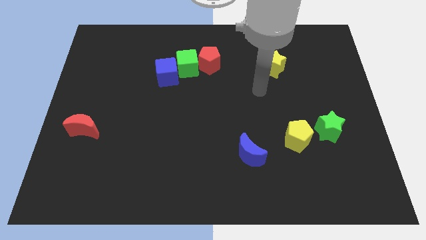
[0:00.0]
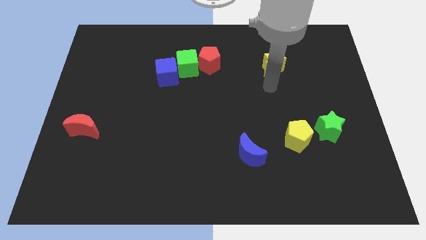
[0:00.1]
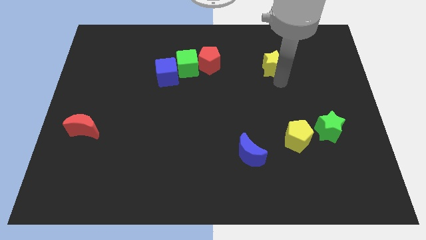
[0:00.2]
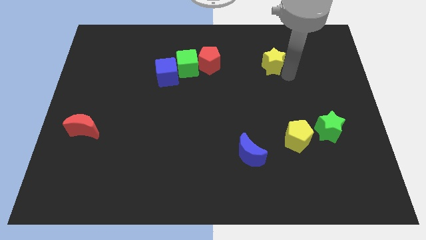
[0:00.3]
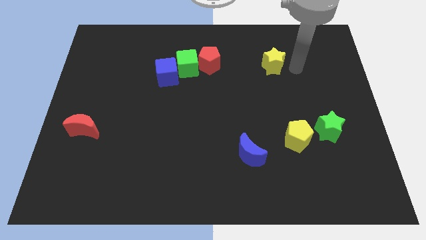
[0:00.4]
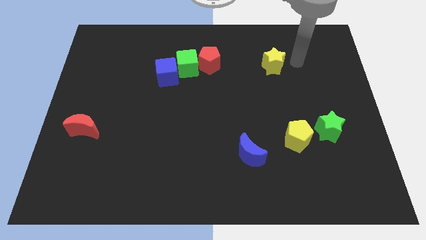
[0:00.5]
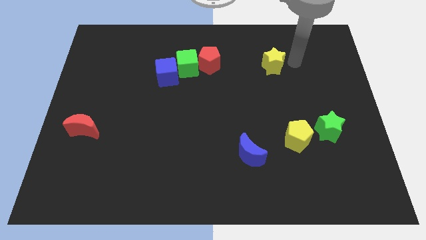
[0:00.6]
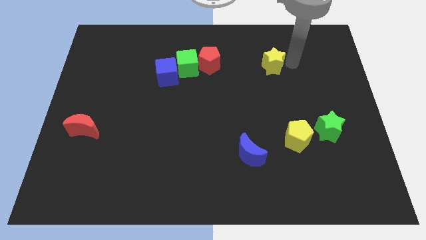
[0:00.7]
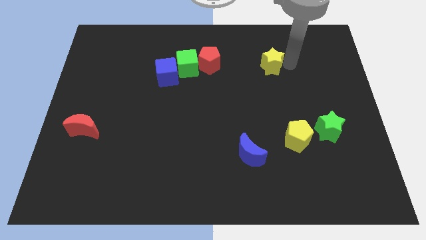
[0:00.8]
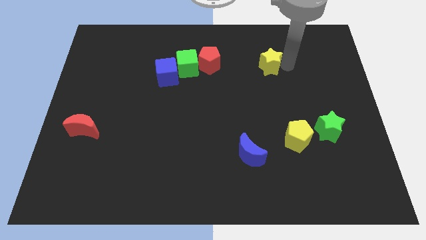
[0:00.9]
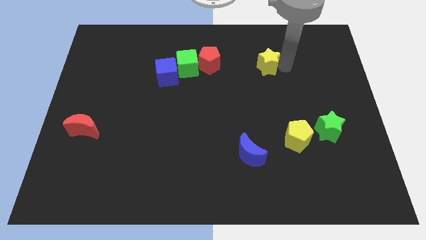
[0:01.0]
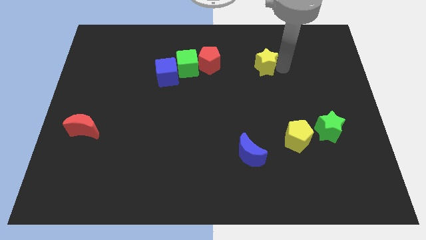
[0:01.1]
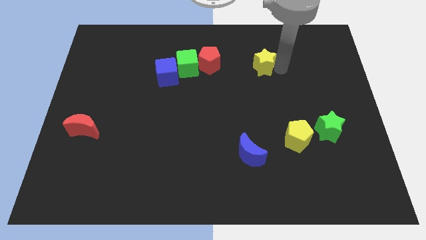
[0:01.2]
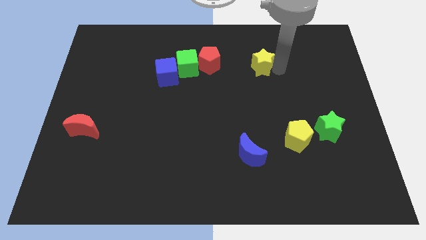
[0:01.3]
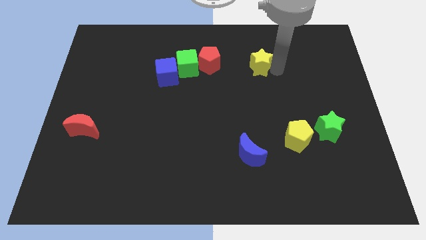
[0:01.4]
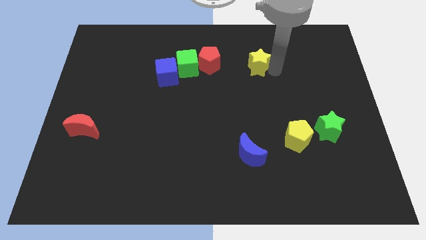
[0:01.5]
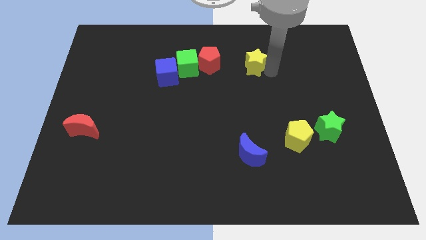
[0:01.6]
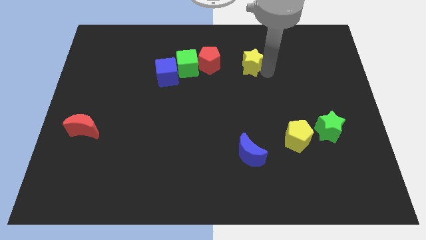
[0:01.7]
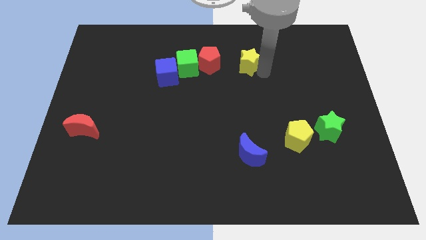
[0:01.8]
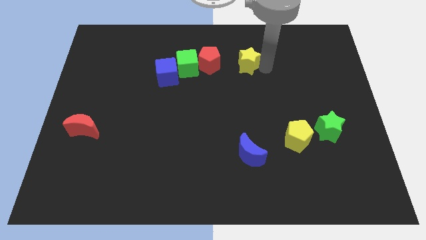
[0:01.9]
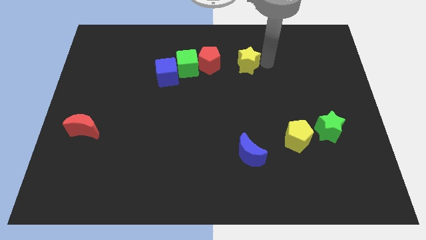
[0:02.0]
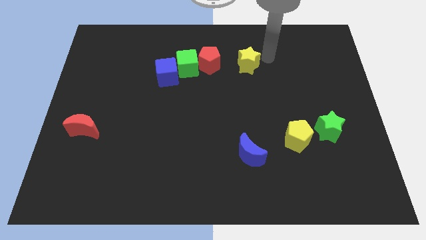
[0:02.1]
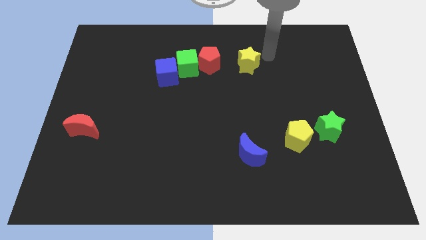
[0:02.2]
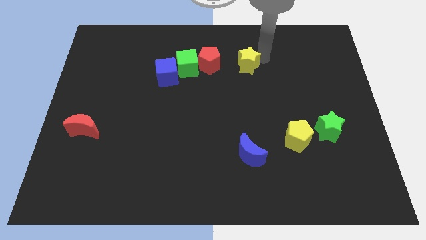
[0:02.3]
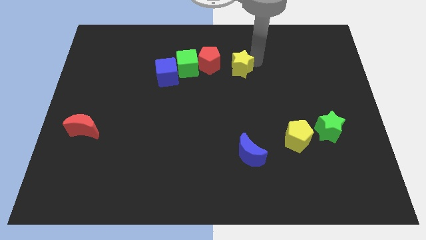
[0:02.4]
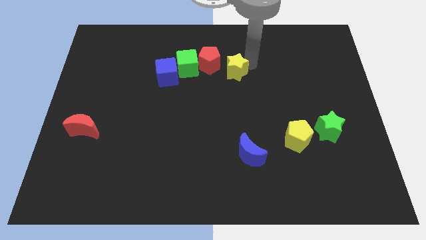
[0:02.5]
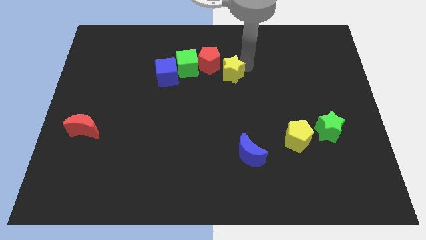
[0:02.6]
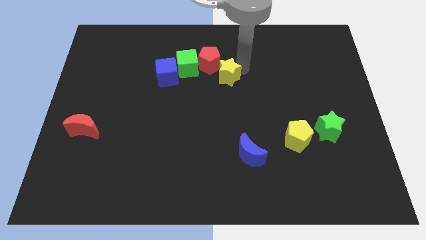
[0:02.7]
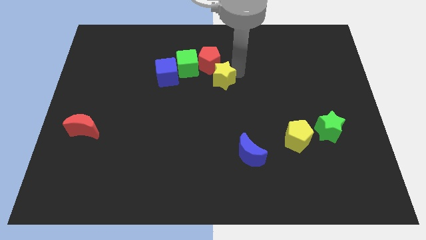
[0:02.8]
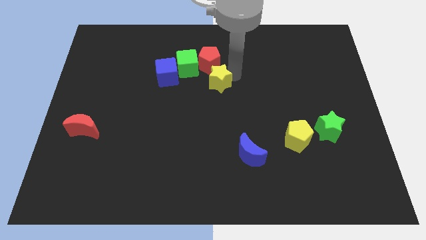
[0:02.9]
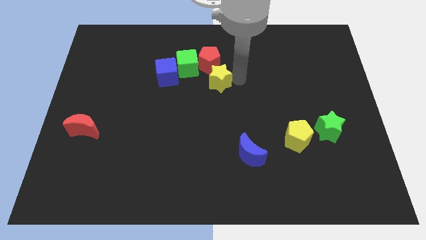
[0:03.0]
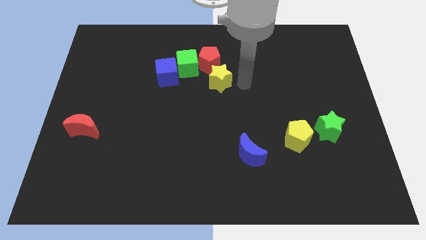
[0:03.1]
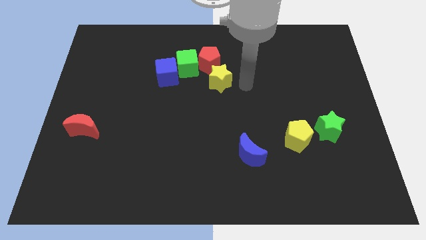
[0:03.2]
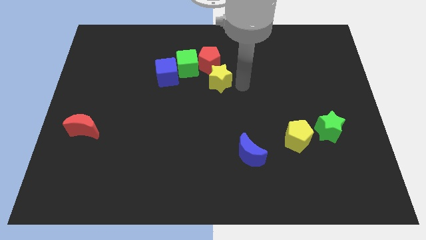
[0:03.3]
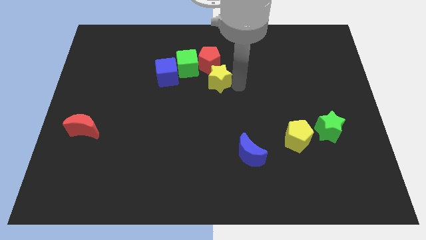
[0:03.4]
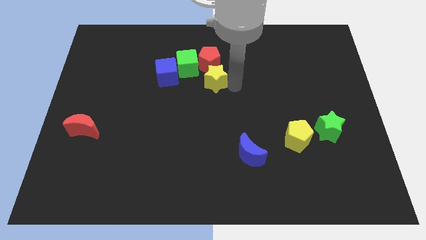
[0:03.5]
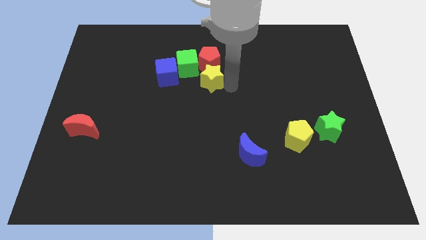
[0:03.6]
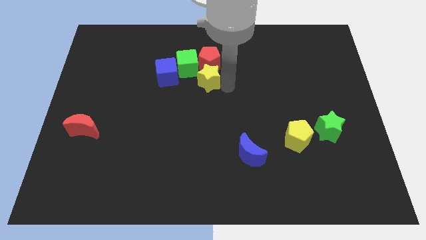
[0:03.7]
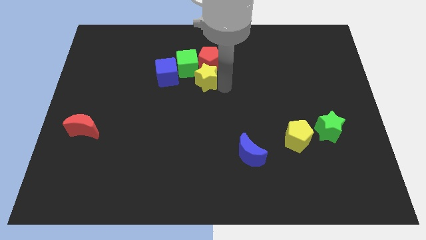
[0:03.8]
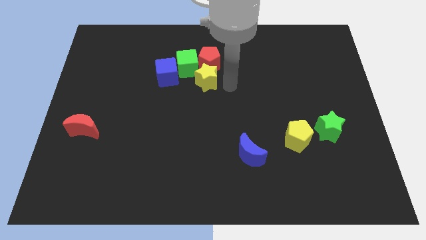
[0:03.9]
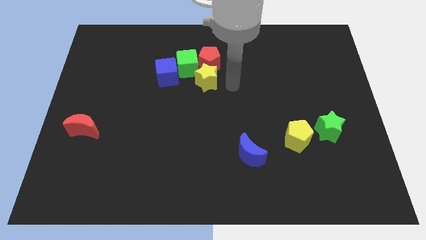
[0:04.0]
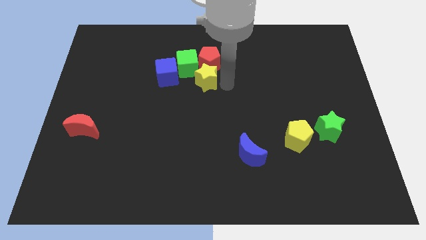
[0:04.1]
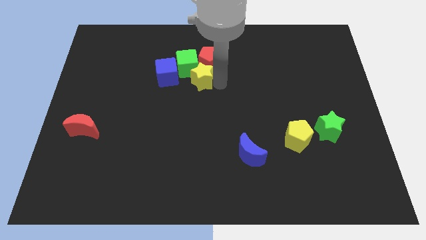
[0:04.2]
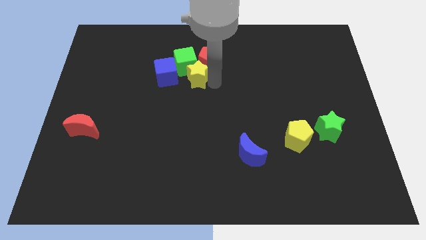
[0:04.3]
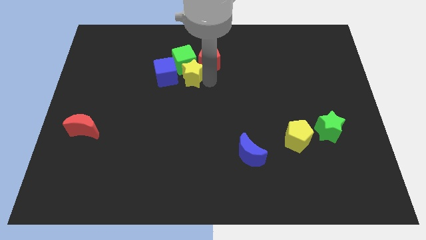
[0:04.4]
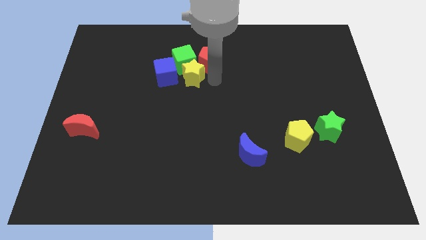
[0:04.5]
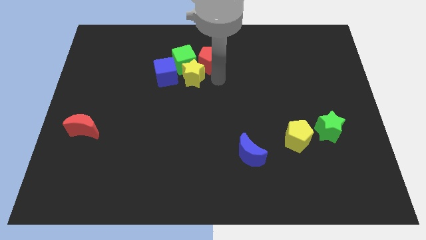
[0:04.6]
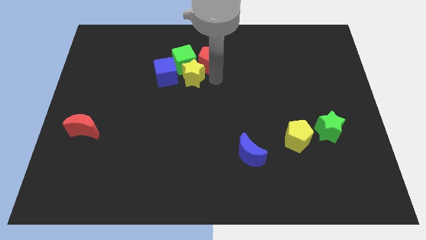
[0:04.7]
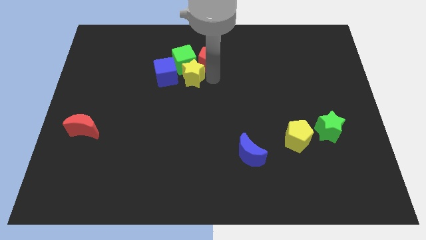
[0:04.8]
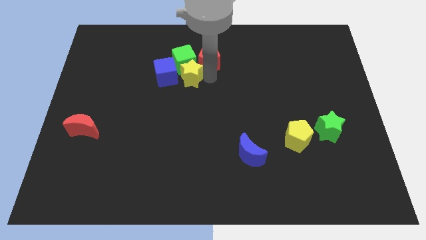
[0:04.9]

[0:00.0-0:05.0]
slide the yellow star towards the blue cube

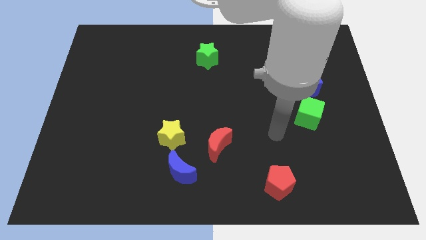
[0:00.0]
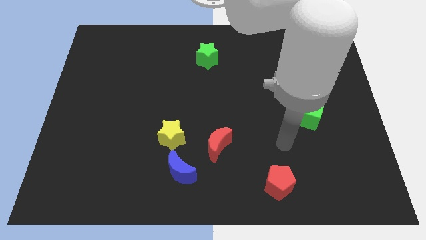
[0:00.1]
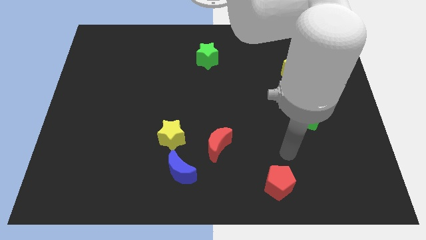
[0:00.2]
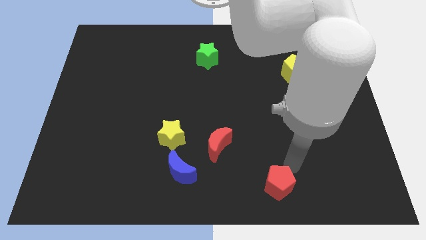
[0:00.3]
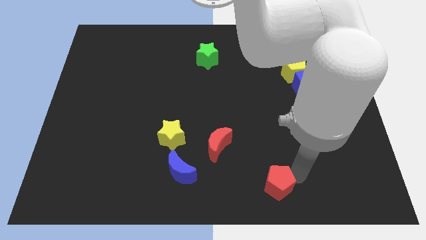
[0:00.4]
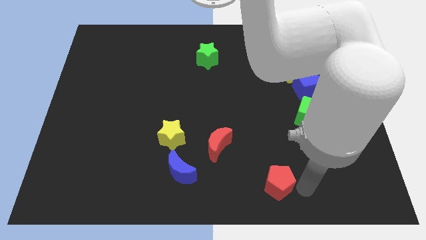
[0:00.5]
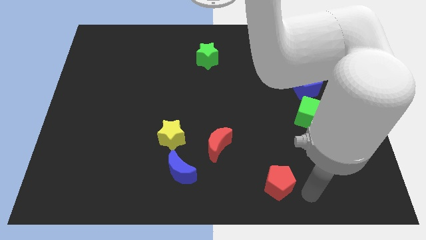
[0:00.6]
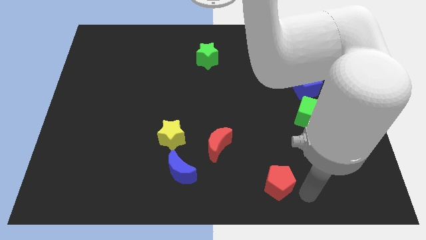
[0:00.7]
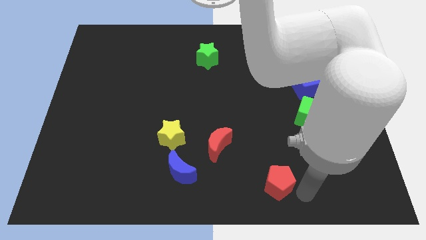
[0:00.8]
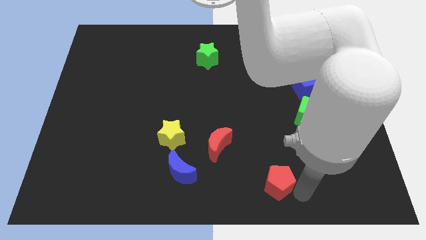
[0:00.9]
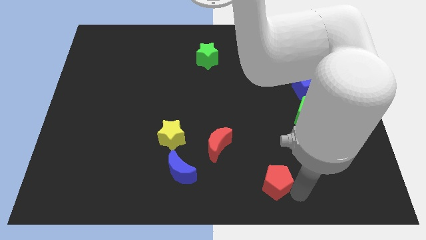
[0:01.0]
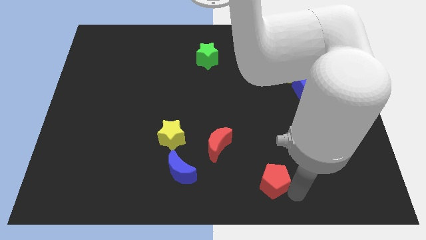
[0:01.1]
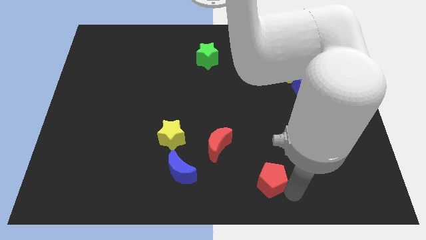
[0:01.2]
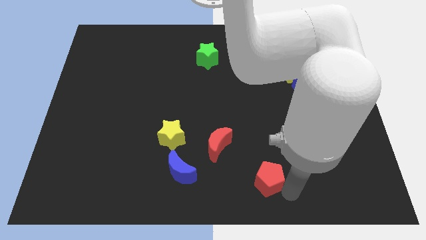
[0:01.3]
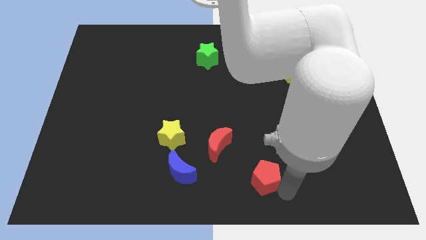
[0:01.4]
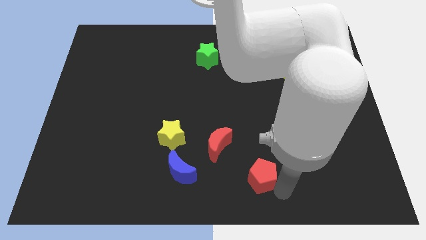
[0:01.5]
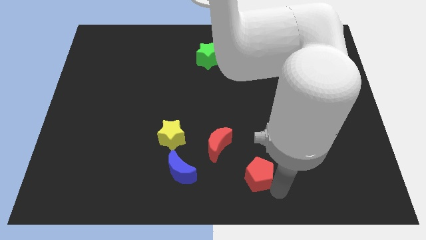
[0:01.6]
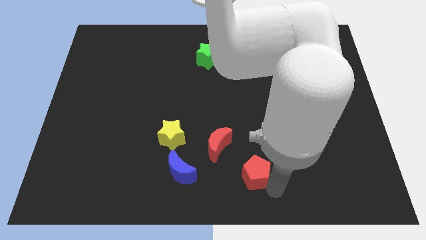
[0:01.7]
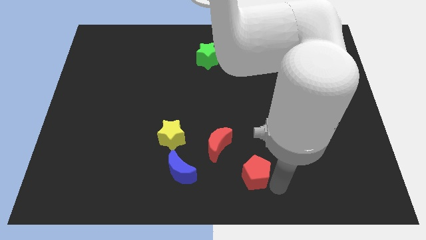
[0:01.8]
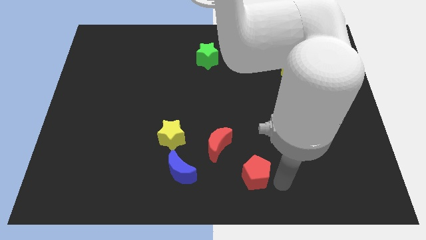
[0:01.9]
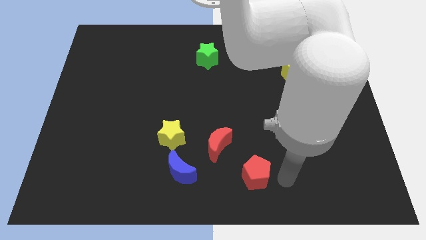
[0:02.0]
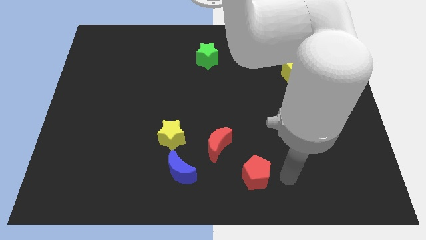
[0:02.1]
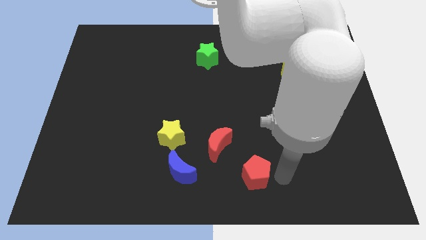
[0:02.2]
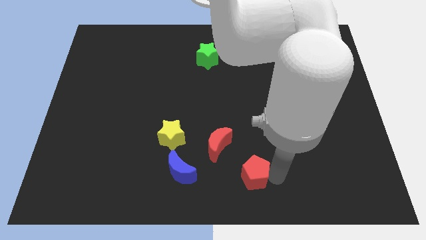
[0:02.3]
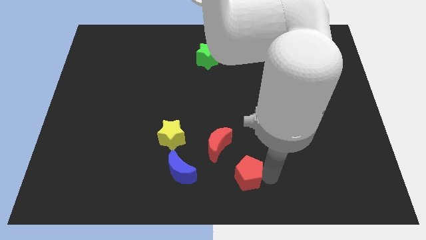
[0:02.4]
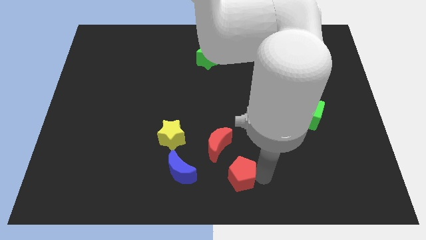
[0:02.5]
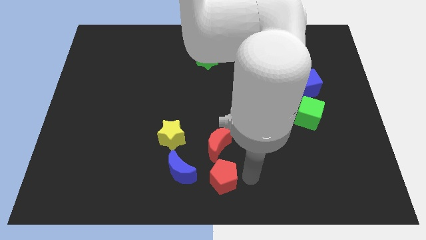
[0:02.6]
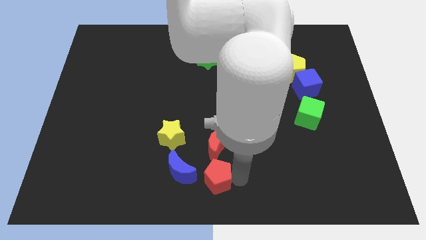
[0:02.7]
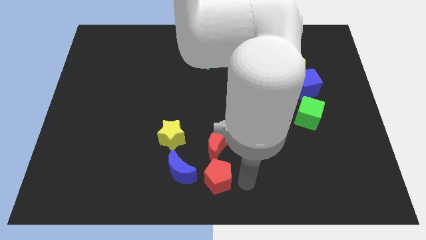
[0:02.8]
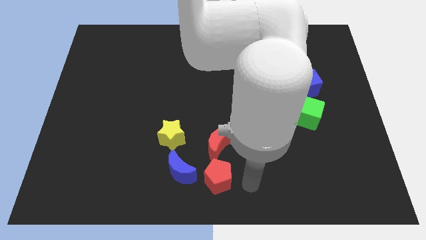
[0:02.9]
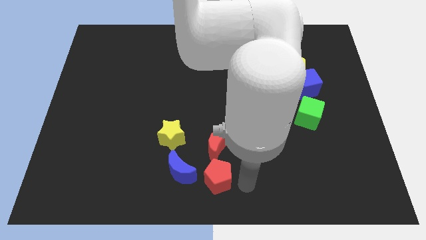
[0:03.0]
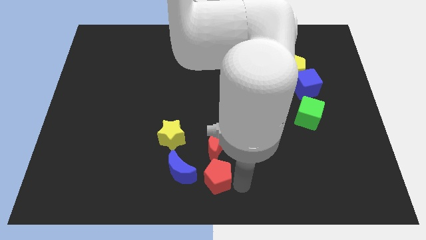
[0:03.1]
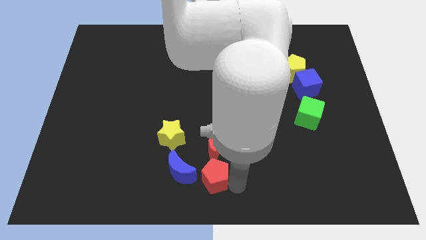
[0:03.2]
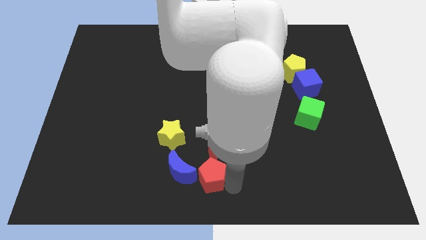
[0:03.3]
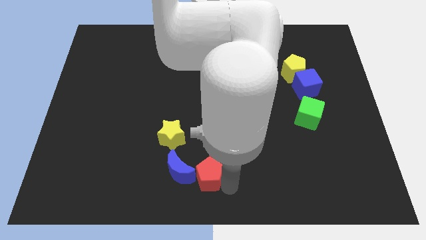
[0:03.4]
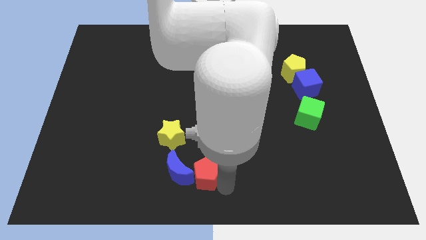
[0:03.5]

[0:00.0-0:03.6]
push the red pentagon close to the blue moon
